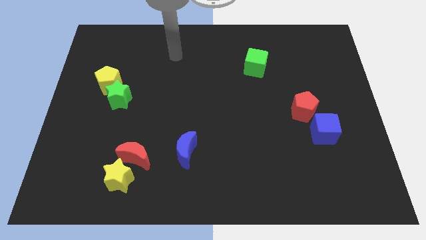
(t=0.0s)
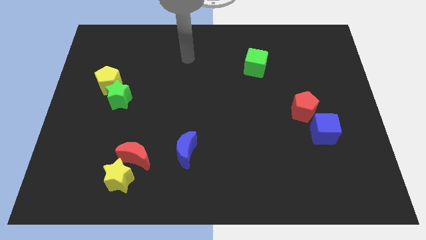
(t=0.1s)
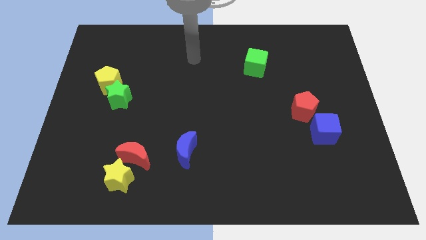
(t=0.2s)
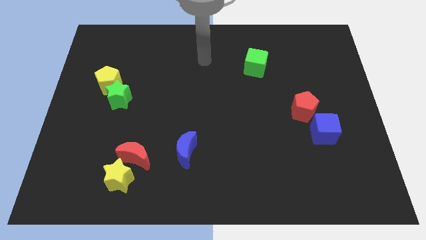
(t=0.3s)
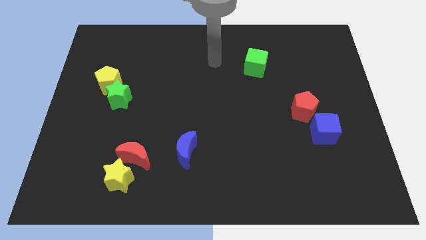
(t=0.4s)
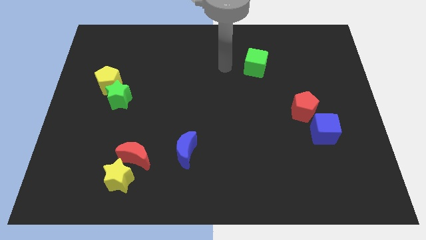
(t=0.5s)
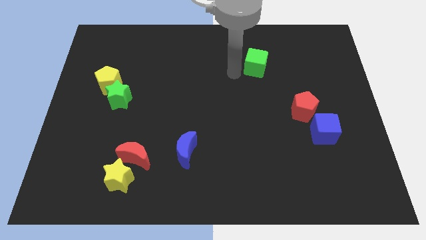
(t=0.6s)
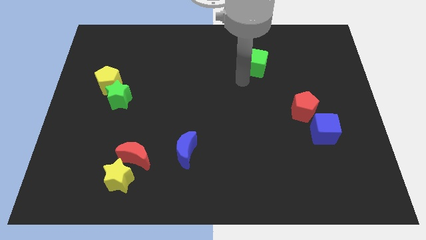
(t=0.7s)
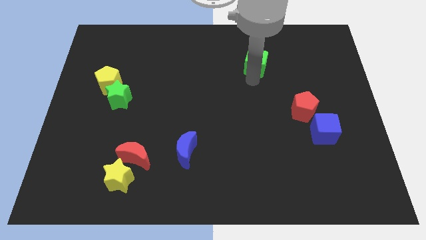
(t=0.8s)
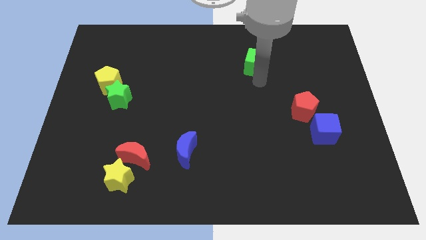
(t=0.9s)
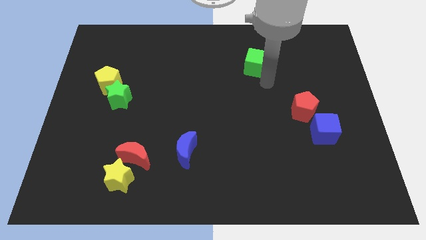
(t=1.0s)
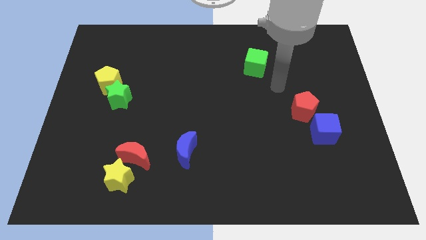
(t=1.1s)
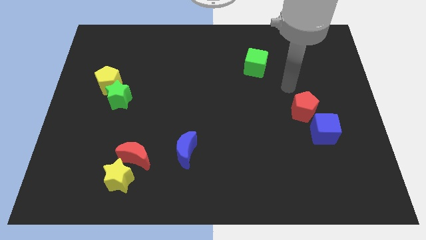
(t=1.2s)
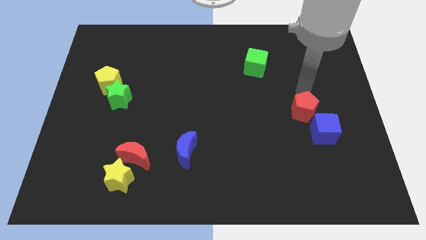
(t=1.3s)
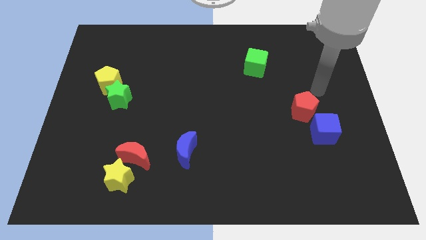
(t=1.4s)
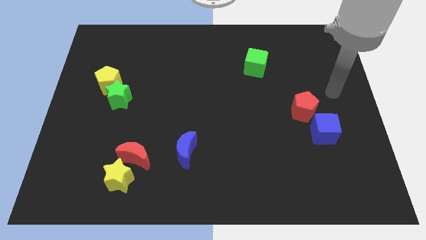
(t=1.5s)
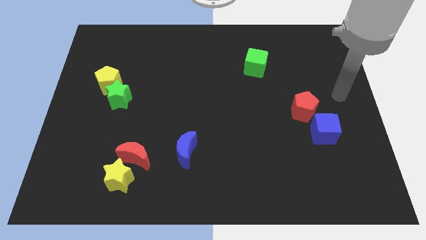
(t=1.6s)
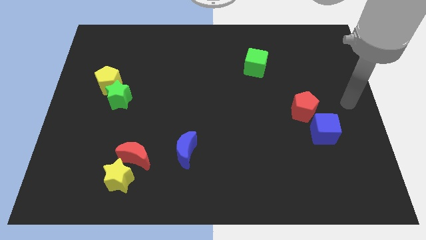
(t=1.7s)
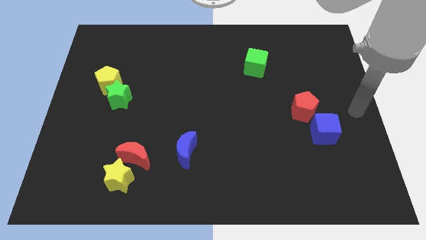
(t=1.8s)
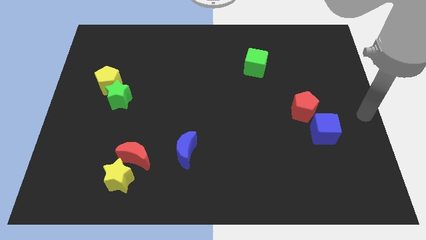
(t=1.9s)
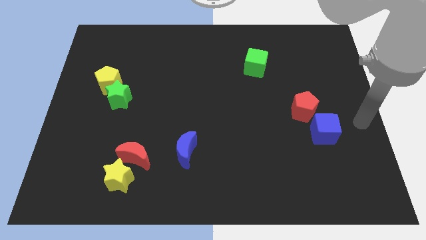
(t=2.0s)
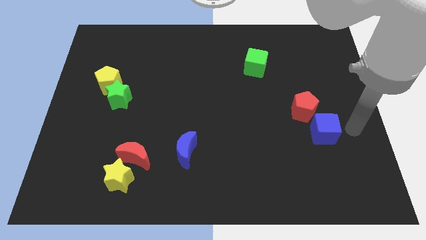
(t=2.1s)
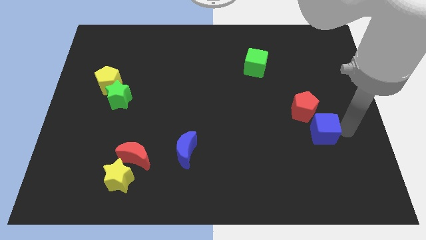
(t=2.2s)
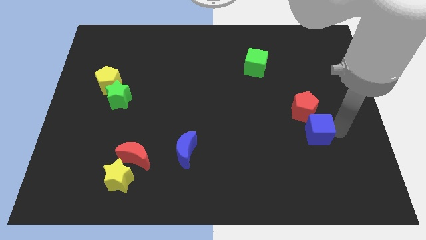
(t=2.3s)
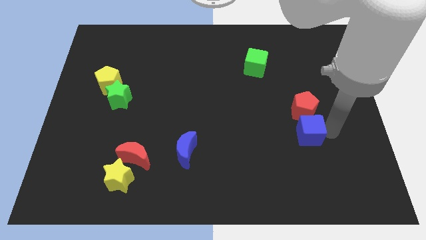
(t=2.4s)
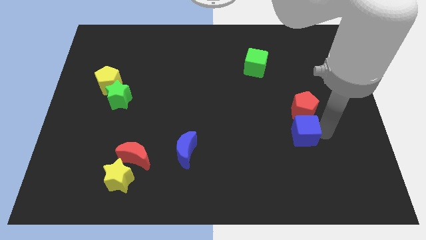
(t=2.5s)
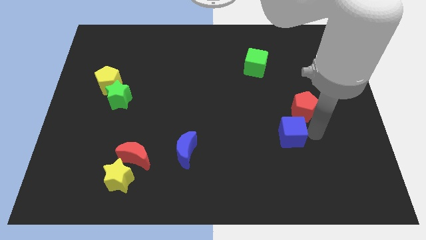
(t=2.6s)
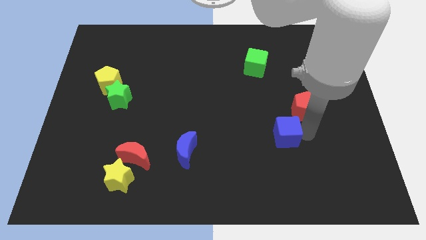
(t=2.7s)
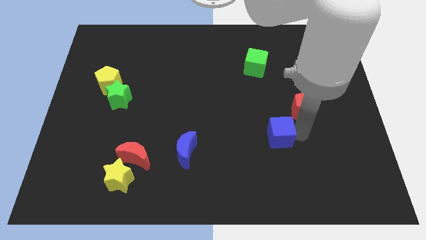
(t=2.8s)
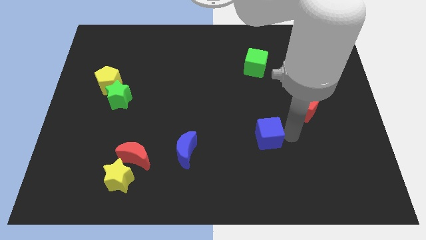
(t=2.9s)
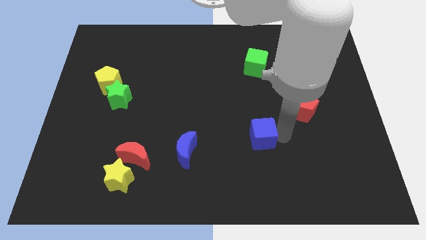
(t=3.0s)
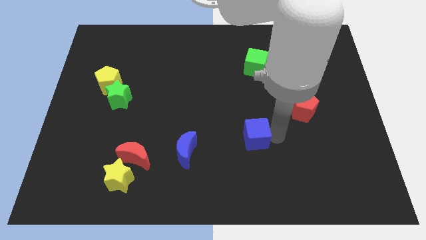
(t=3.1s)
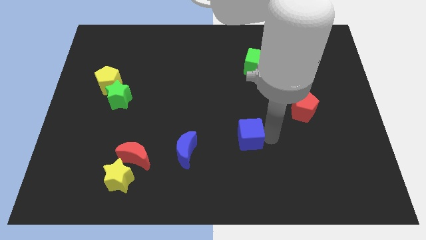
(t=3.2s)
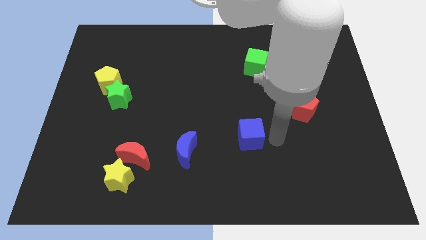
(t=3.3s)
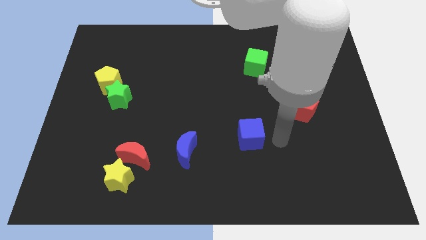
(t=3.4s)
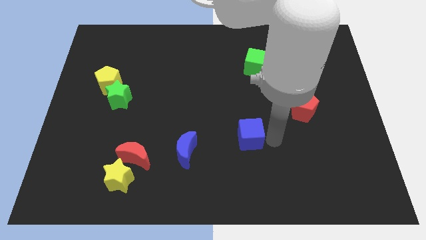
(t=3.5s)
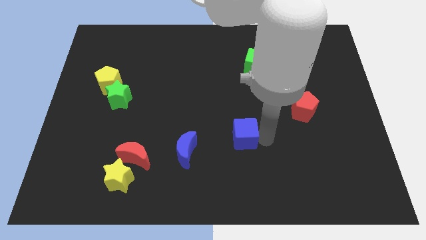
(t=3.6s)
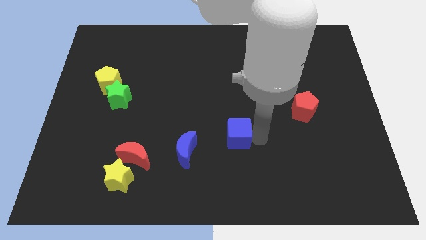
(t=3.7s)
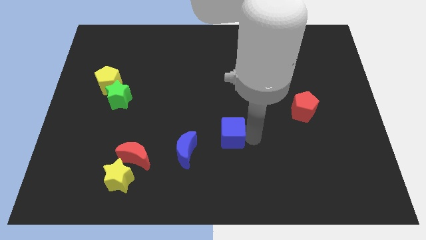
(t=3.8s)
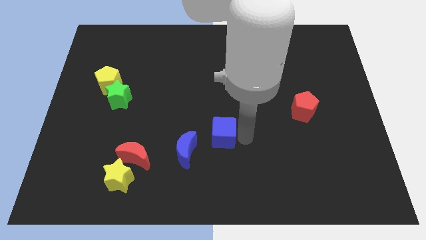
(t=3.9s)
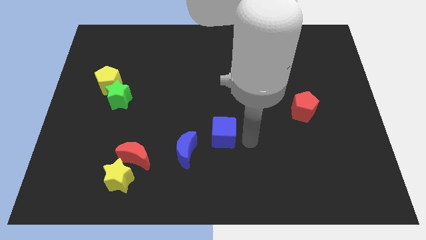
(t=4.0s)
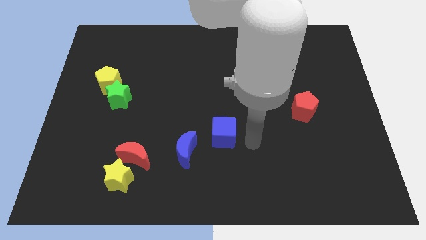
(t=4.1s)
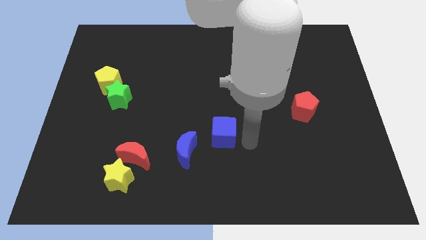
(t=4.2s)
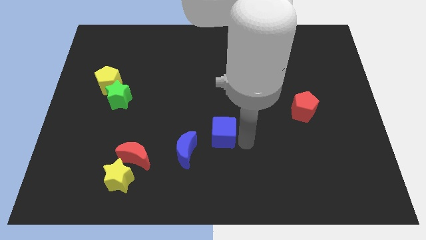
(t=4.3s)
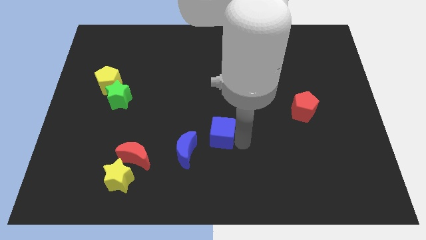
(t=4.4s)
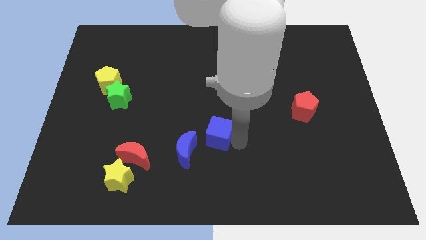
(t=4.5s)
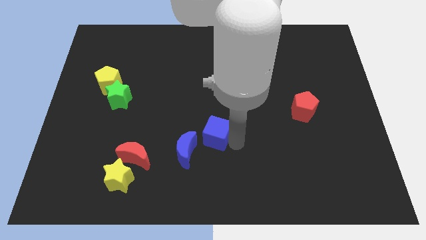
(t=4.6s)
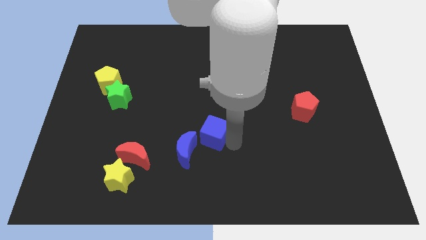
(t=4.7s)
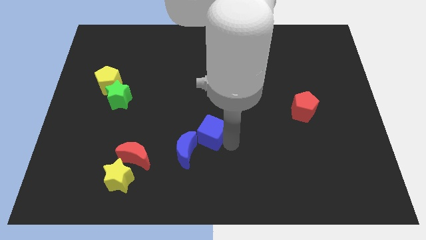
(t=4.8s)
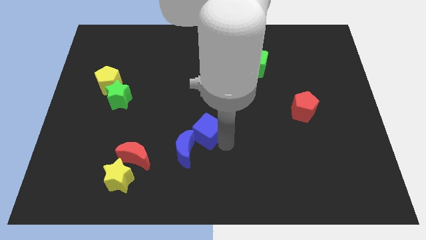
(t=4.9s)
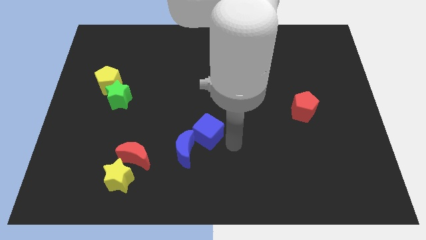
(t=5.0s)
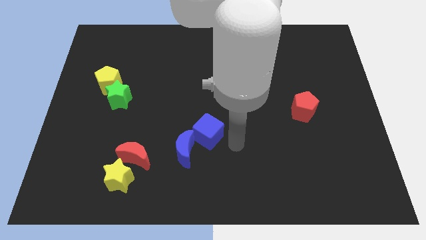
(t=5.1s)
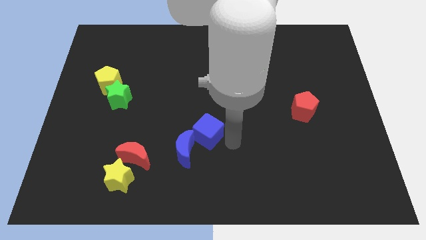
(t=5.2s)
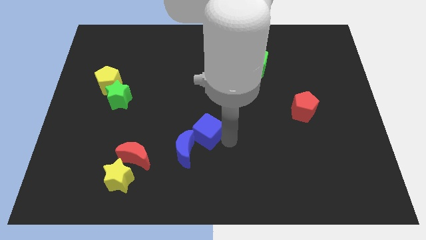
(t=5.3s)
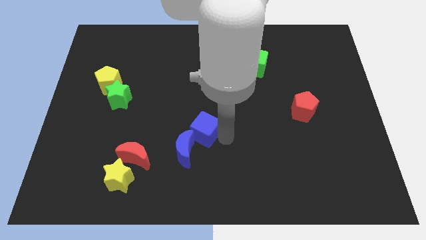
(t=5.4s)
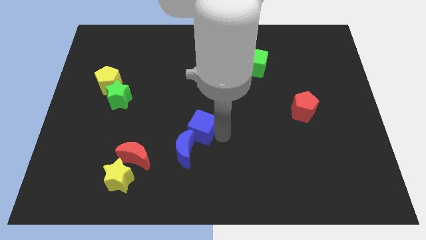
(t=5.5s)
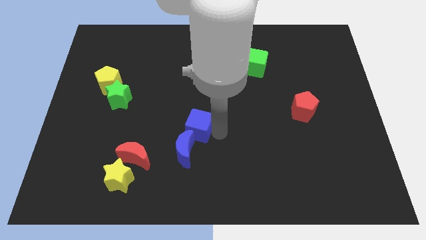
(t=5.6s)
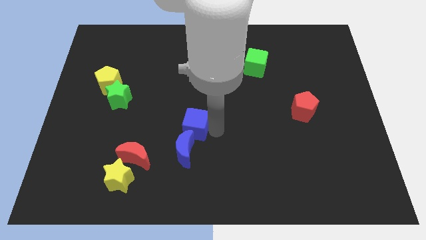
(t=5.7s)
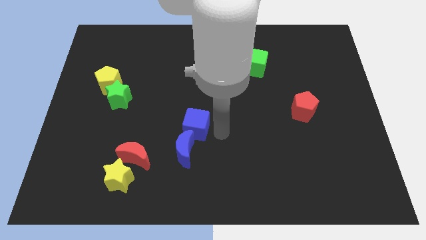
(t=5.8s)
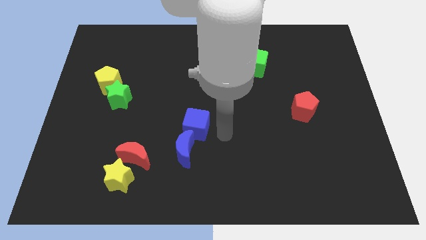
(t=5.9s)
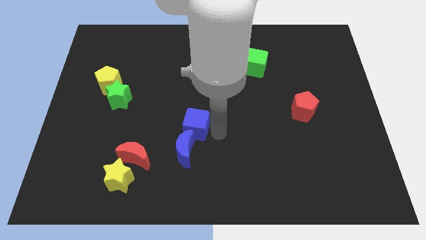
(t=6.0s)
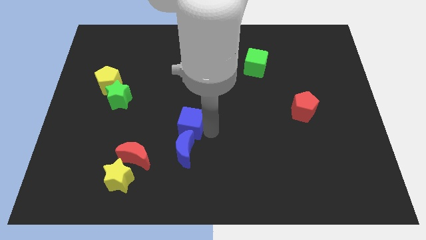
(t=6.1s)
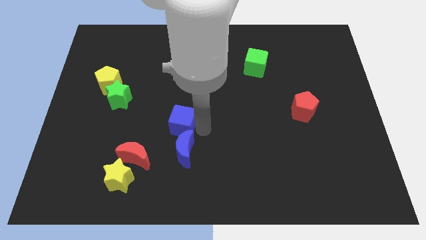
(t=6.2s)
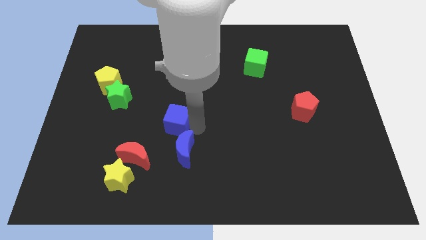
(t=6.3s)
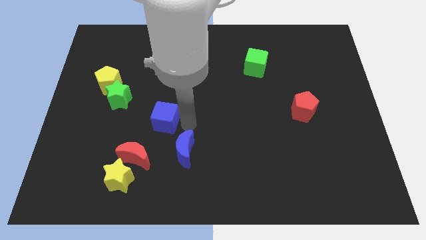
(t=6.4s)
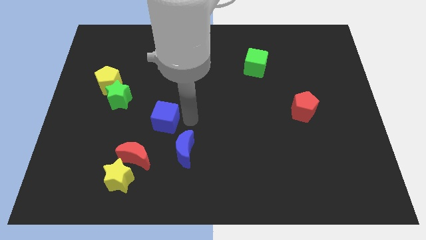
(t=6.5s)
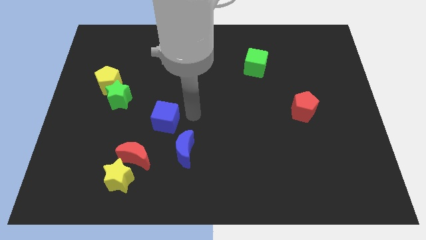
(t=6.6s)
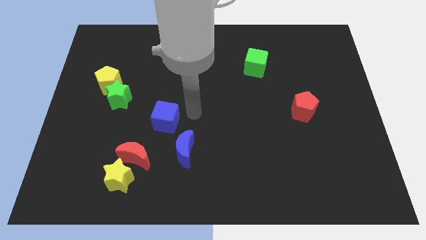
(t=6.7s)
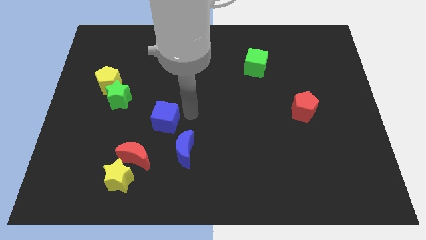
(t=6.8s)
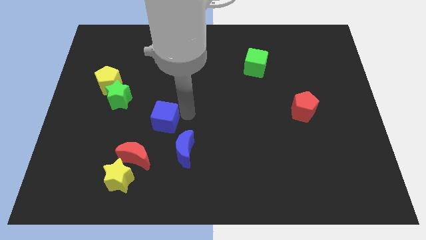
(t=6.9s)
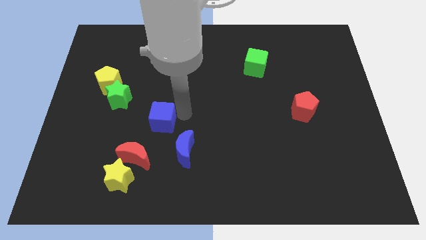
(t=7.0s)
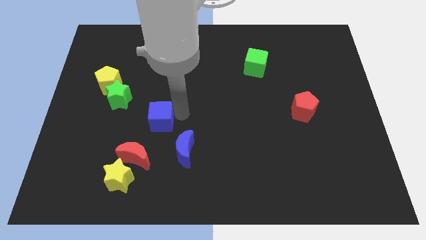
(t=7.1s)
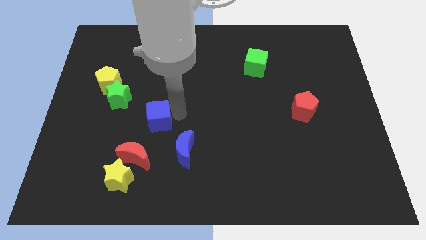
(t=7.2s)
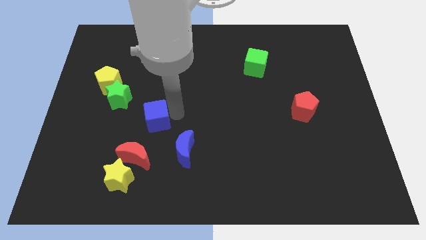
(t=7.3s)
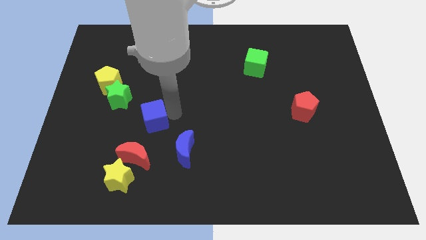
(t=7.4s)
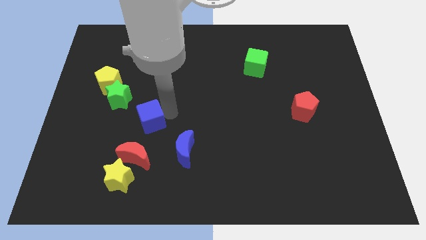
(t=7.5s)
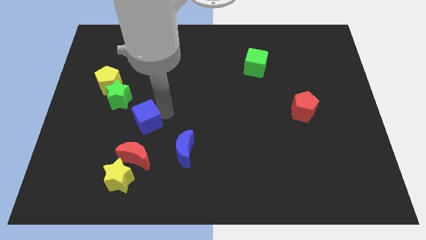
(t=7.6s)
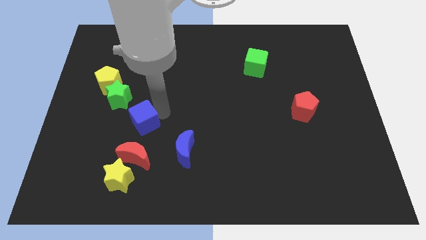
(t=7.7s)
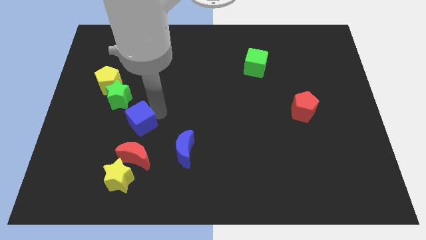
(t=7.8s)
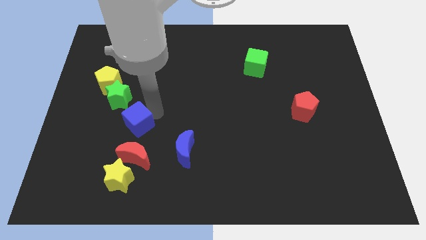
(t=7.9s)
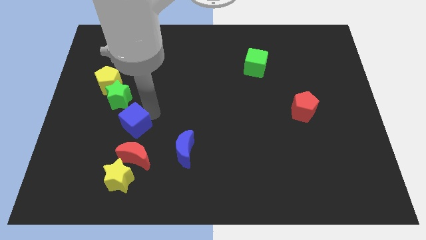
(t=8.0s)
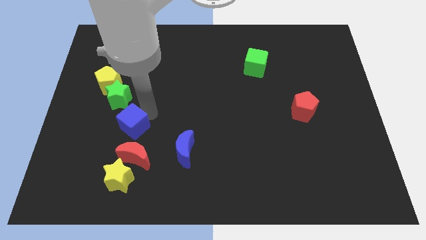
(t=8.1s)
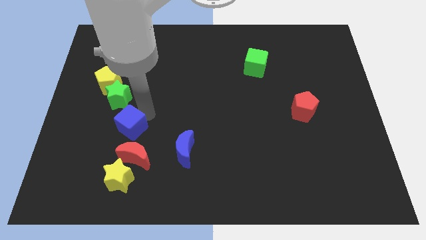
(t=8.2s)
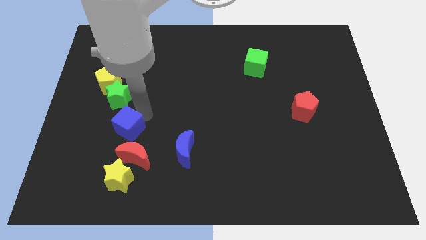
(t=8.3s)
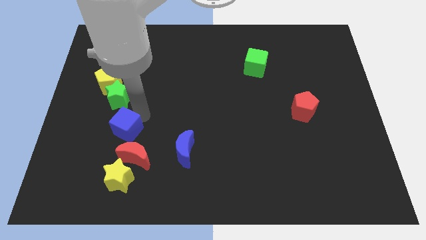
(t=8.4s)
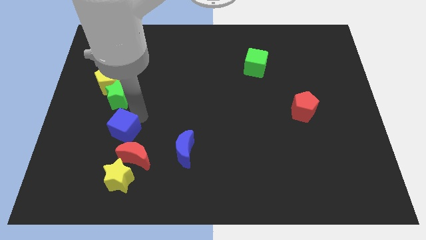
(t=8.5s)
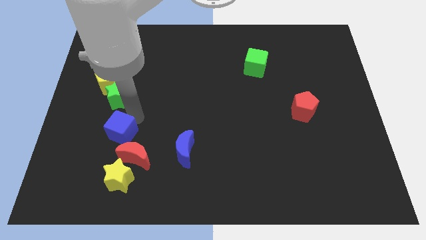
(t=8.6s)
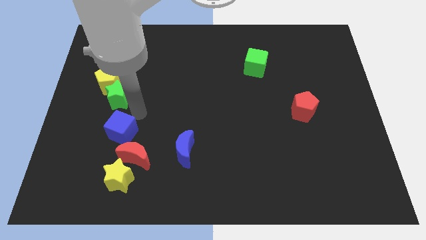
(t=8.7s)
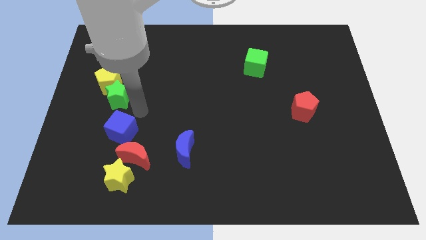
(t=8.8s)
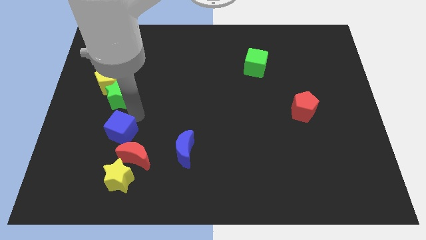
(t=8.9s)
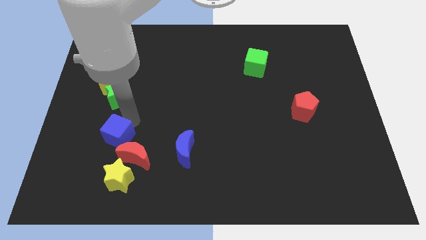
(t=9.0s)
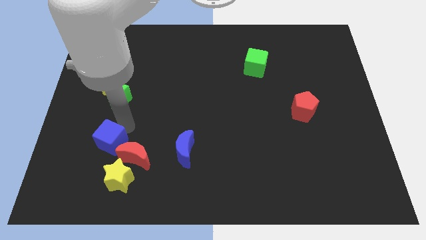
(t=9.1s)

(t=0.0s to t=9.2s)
push the blue cube diagonally up and to the left of the yellow star
